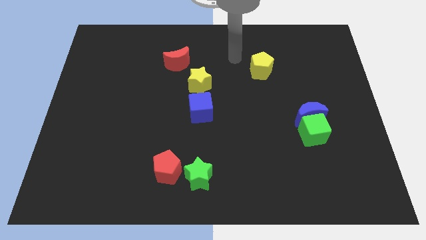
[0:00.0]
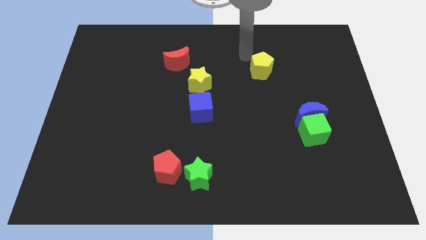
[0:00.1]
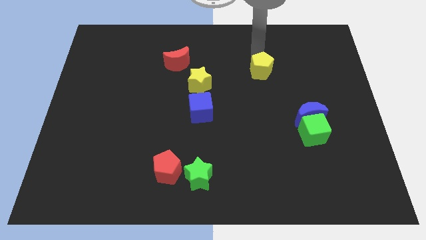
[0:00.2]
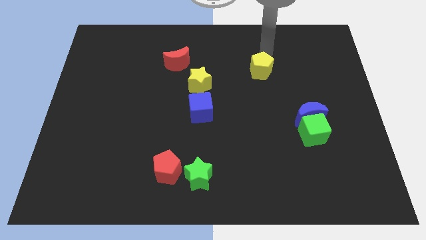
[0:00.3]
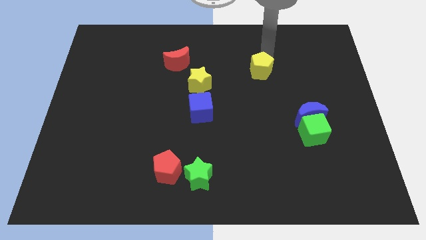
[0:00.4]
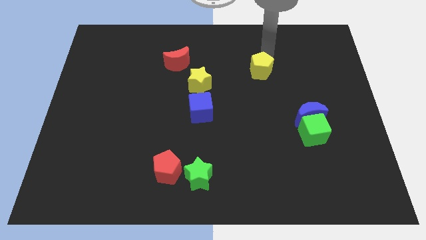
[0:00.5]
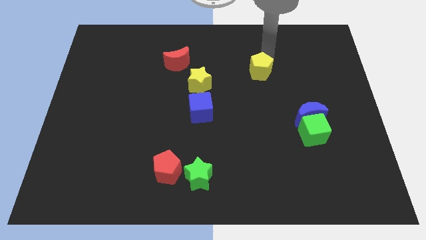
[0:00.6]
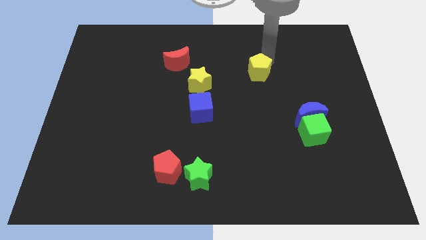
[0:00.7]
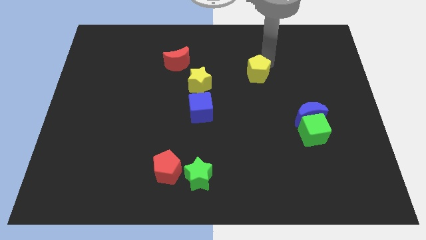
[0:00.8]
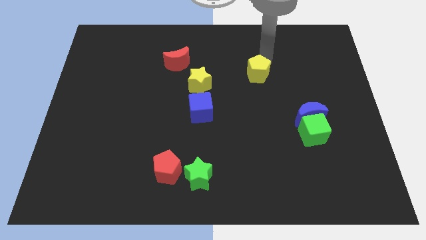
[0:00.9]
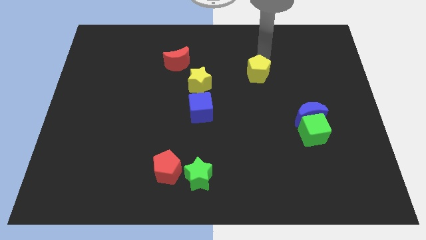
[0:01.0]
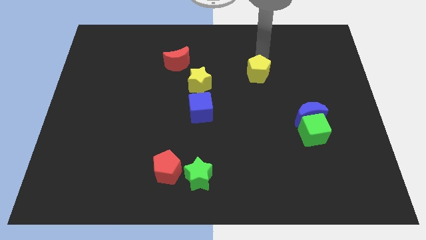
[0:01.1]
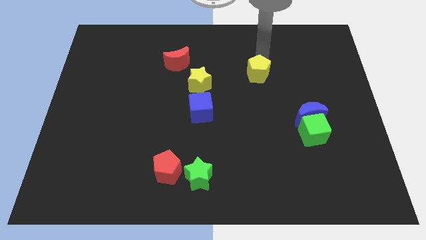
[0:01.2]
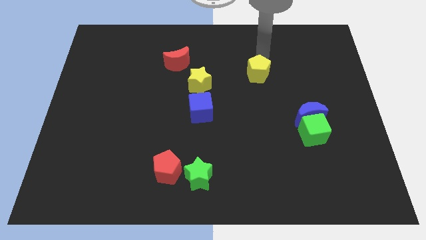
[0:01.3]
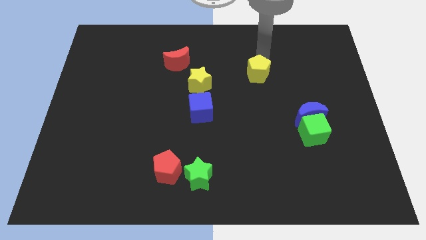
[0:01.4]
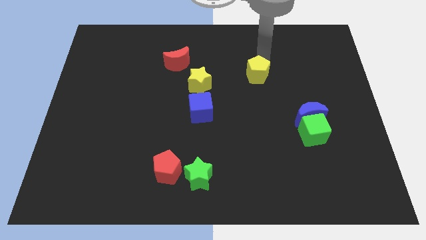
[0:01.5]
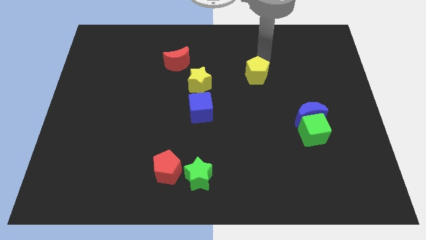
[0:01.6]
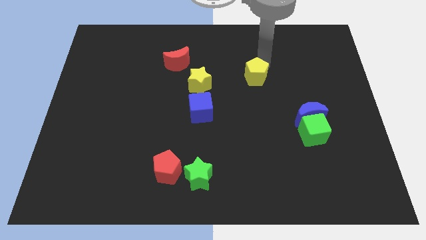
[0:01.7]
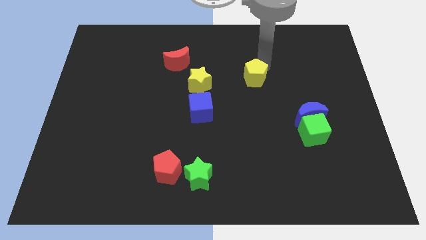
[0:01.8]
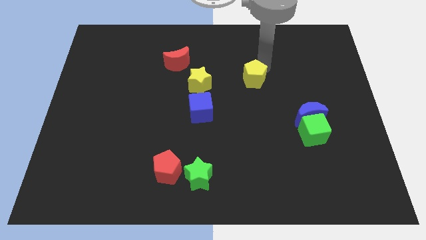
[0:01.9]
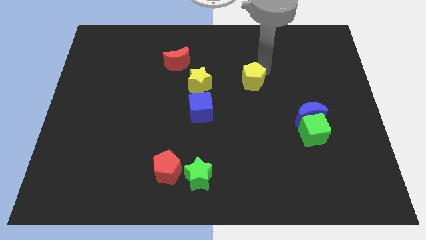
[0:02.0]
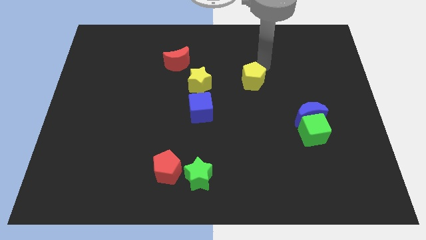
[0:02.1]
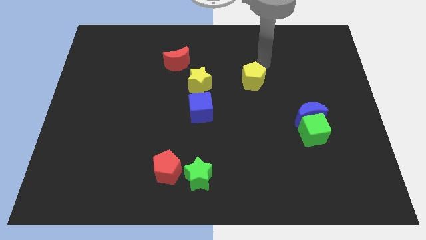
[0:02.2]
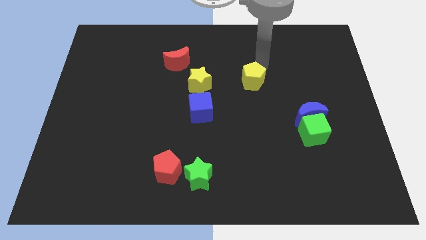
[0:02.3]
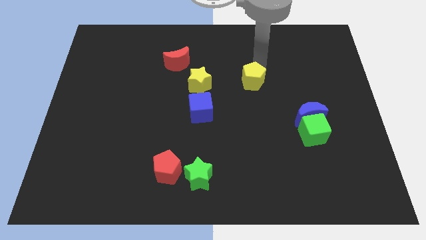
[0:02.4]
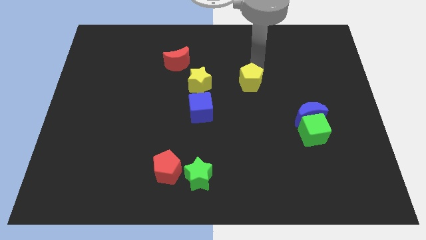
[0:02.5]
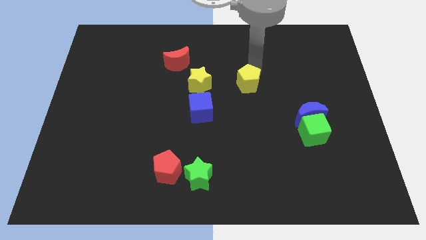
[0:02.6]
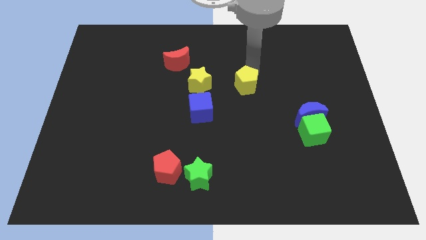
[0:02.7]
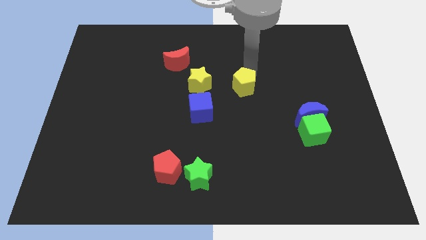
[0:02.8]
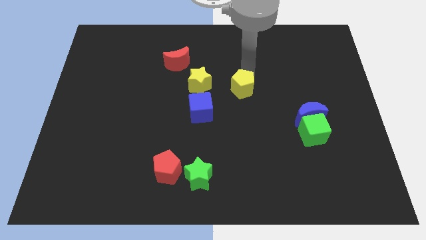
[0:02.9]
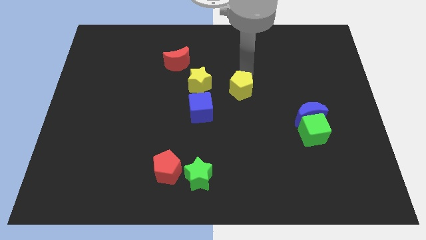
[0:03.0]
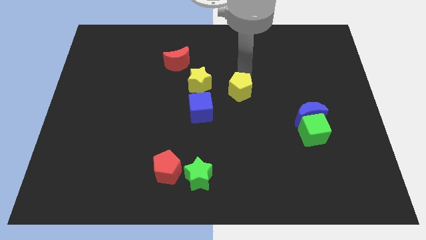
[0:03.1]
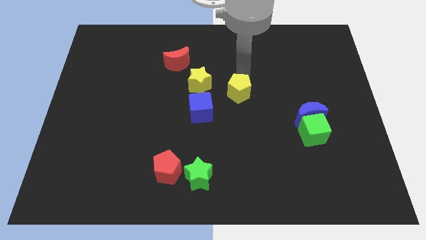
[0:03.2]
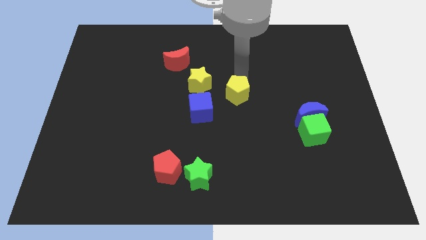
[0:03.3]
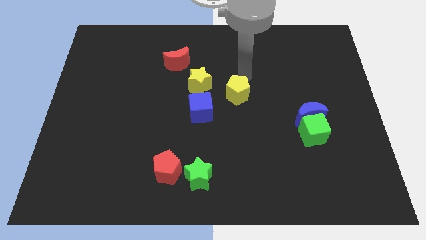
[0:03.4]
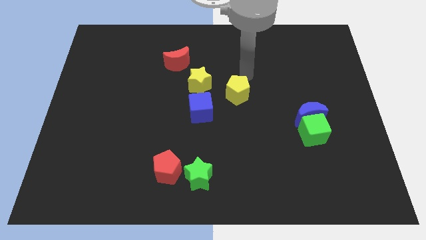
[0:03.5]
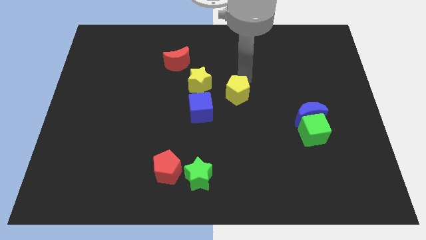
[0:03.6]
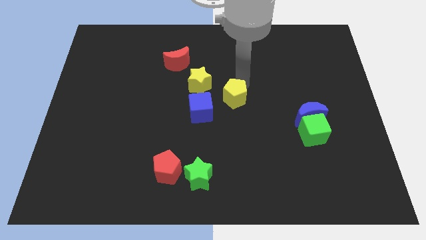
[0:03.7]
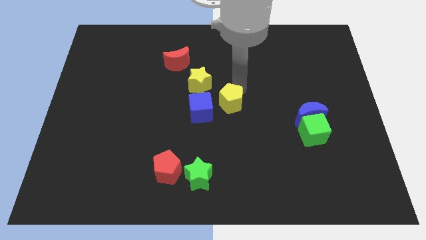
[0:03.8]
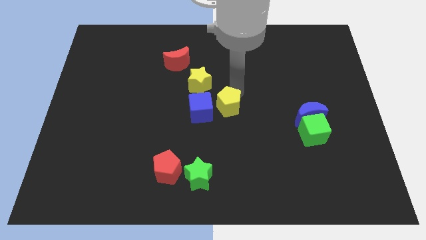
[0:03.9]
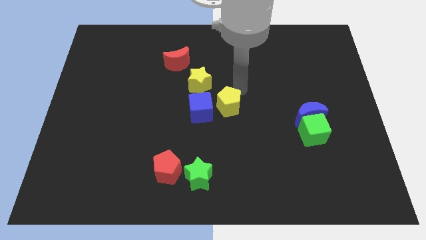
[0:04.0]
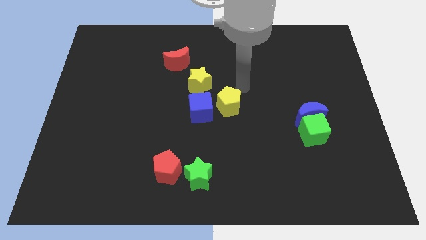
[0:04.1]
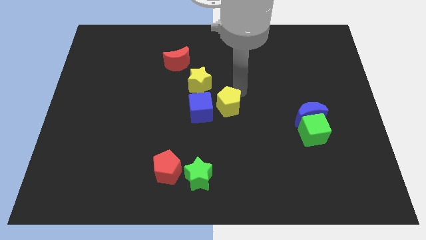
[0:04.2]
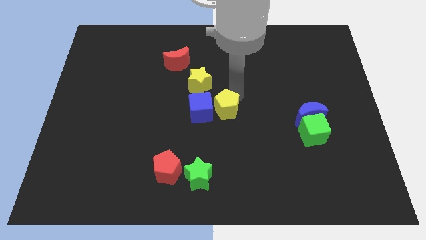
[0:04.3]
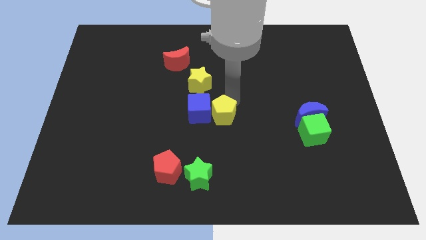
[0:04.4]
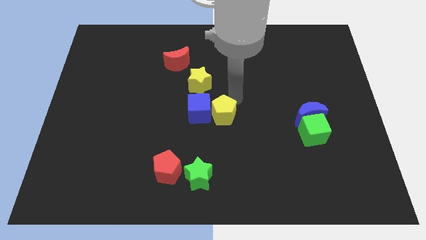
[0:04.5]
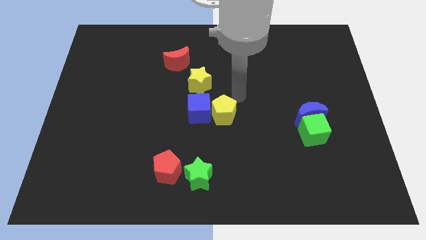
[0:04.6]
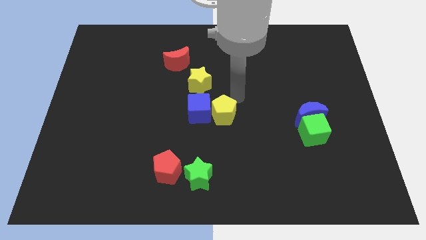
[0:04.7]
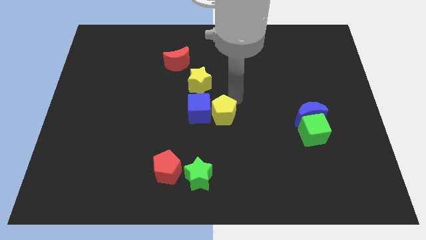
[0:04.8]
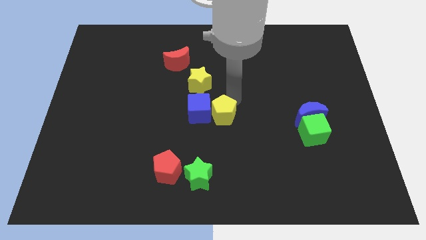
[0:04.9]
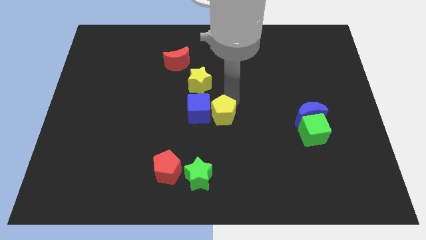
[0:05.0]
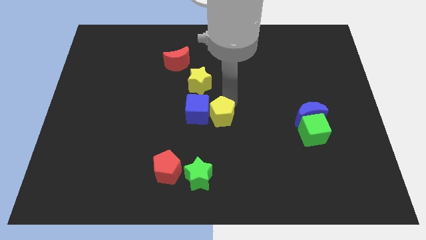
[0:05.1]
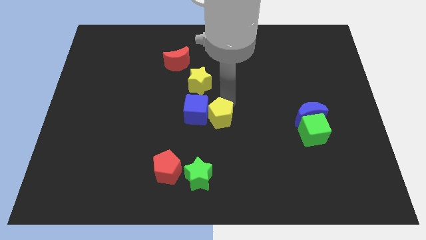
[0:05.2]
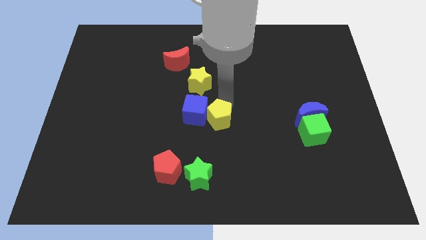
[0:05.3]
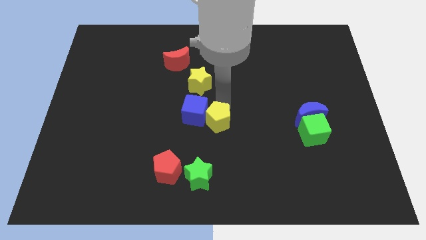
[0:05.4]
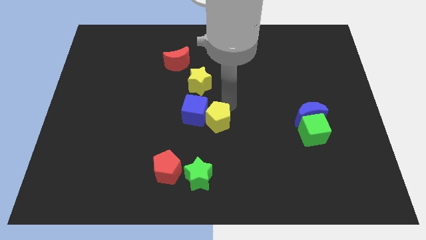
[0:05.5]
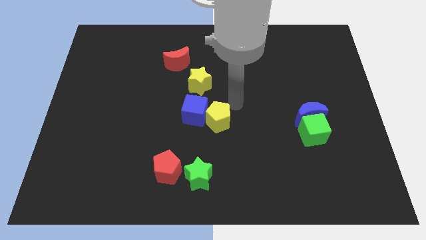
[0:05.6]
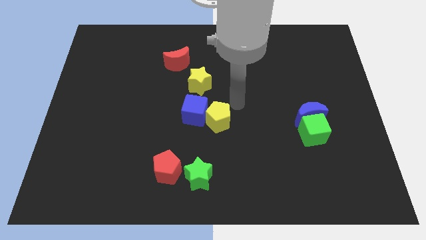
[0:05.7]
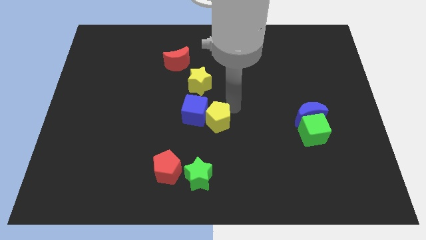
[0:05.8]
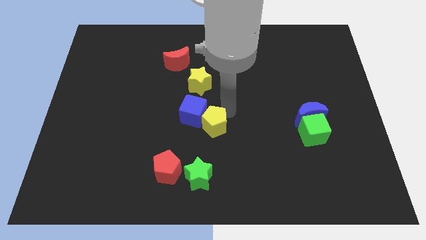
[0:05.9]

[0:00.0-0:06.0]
put the yellow pentagon above the green star

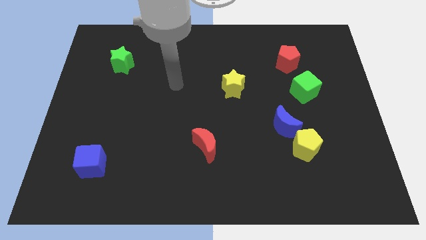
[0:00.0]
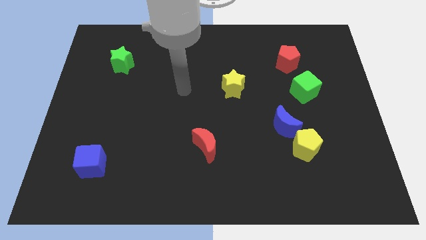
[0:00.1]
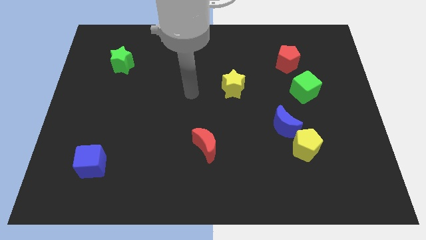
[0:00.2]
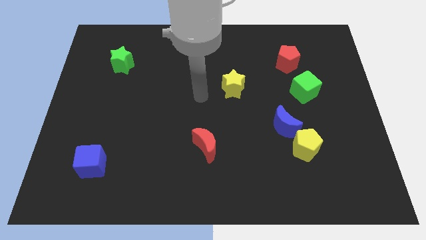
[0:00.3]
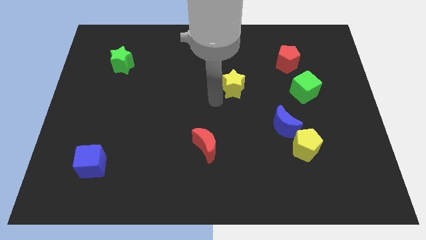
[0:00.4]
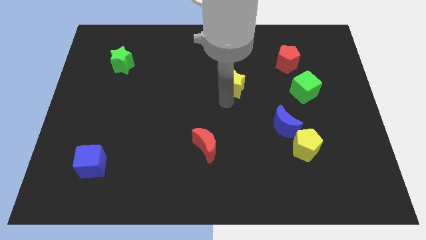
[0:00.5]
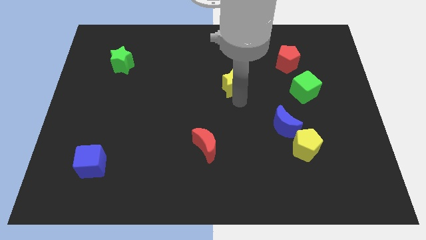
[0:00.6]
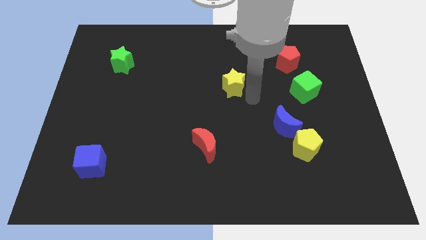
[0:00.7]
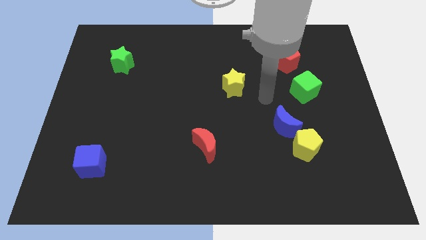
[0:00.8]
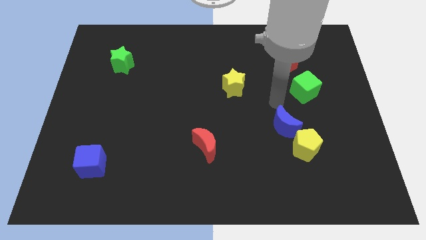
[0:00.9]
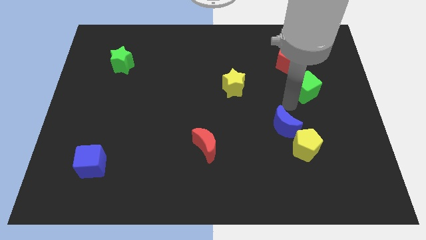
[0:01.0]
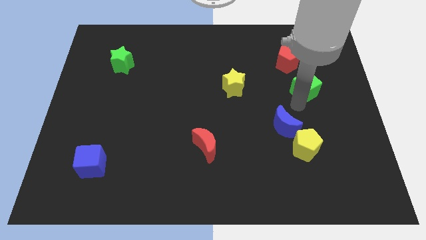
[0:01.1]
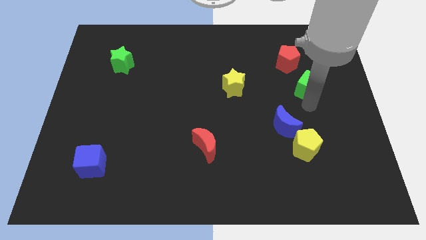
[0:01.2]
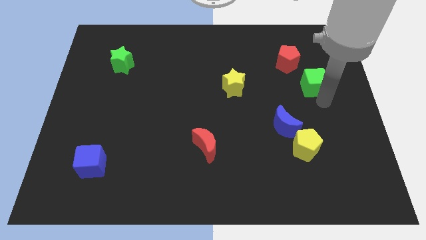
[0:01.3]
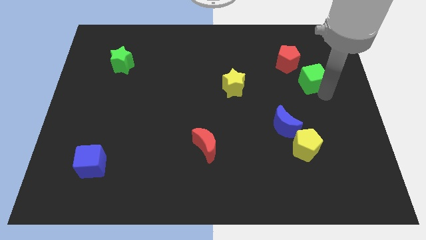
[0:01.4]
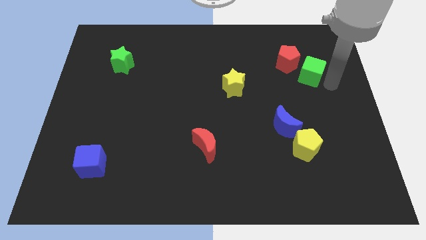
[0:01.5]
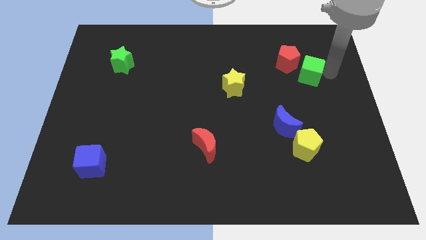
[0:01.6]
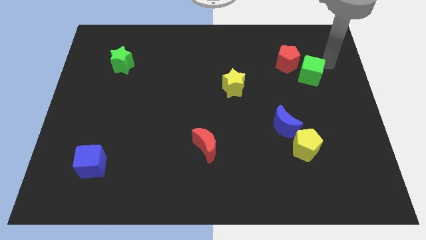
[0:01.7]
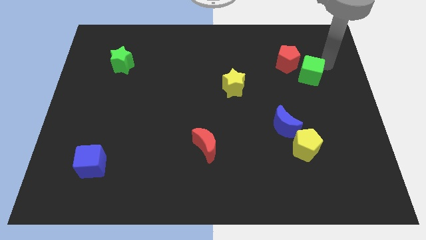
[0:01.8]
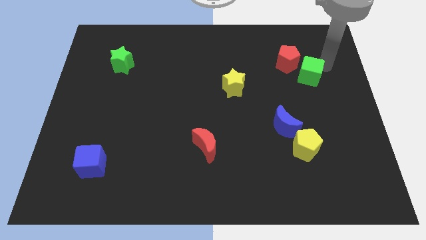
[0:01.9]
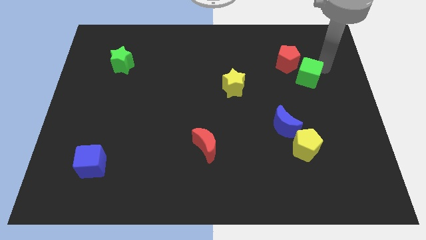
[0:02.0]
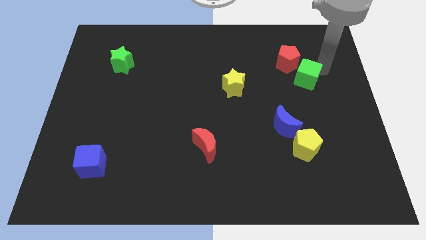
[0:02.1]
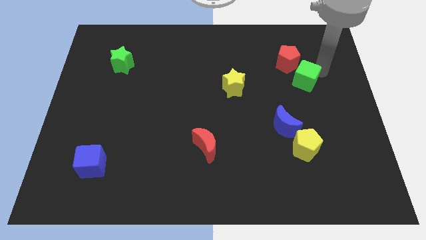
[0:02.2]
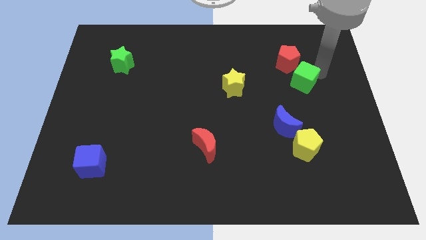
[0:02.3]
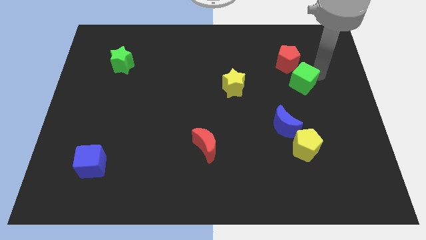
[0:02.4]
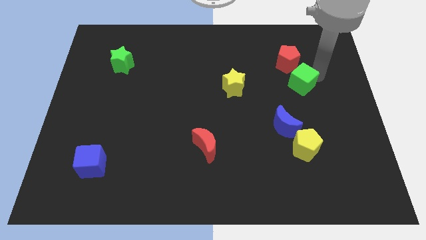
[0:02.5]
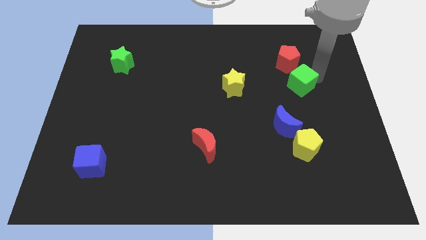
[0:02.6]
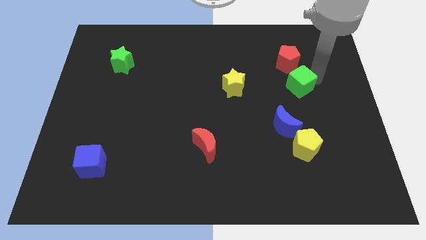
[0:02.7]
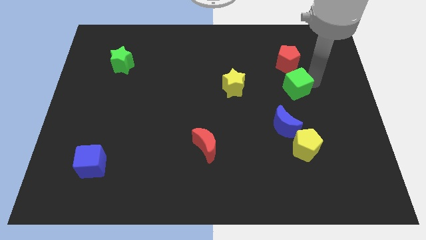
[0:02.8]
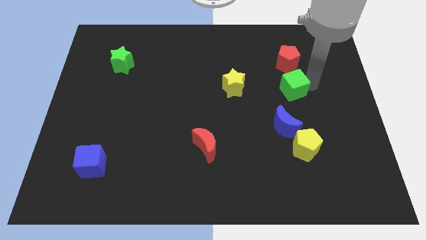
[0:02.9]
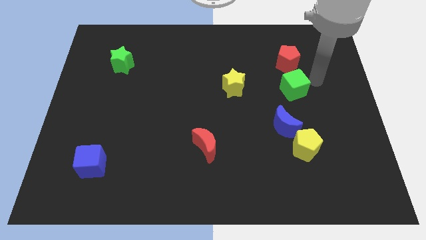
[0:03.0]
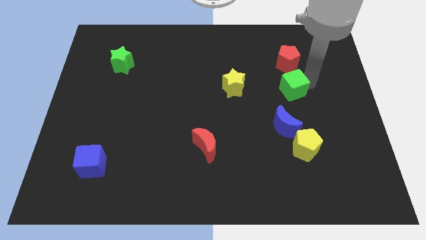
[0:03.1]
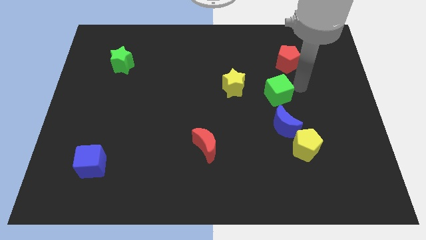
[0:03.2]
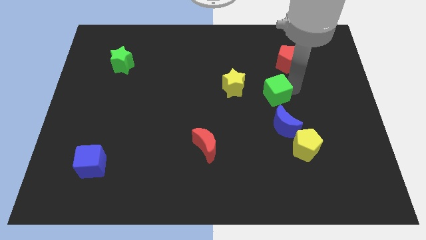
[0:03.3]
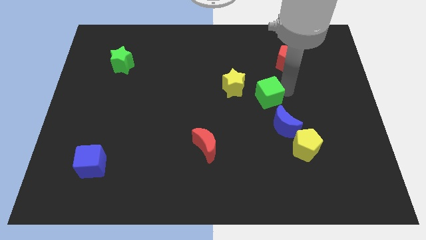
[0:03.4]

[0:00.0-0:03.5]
move the green cube diagonally down and to the right of the yellow star
